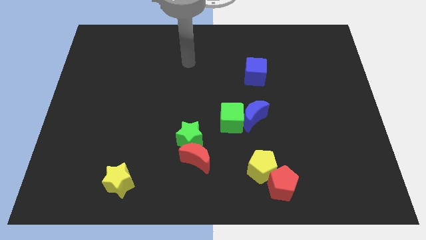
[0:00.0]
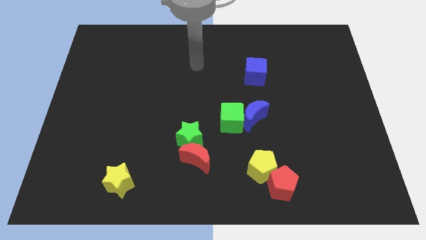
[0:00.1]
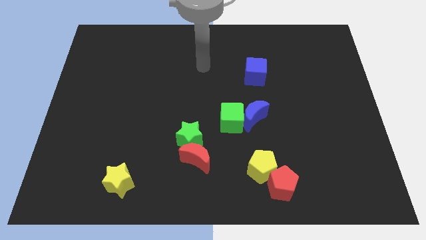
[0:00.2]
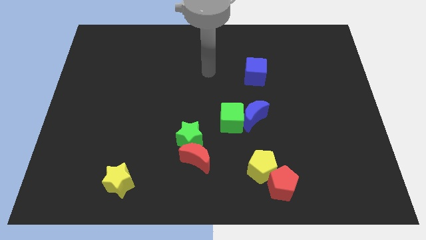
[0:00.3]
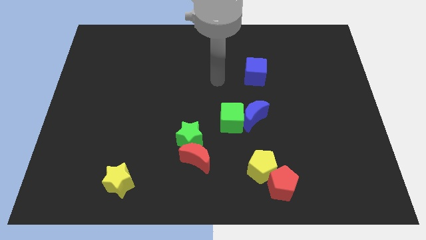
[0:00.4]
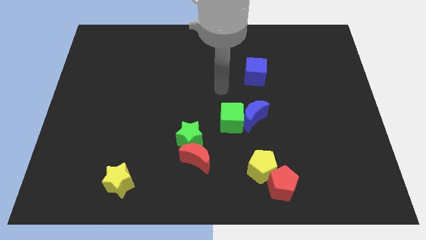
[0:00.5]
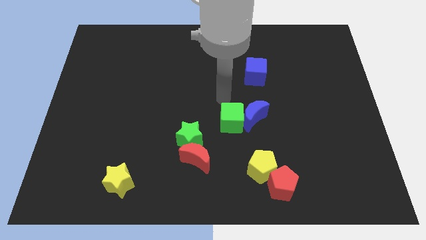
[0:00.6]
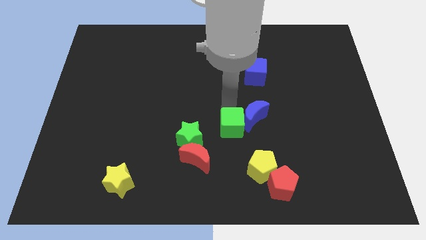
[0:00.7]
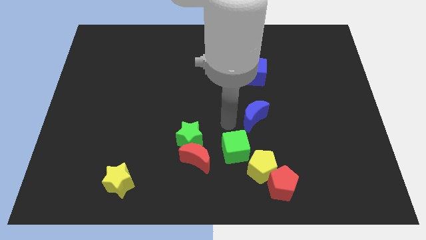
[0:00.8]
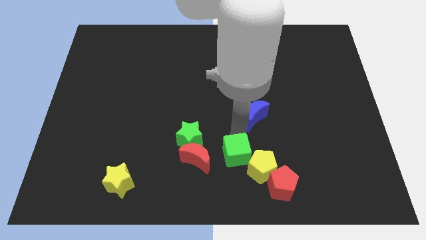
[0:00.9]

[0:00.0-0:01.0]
move the blue moon away from the green cube

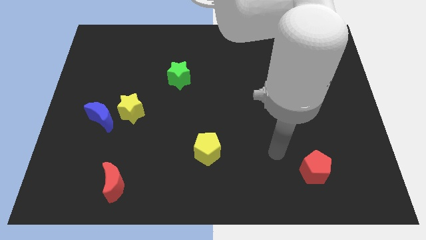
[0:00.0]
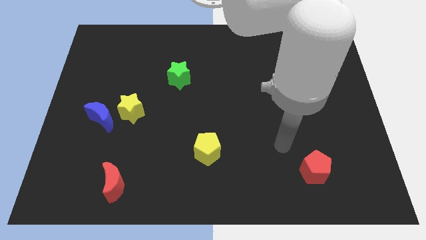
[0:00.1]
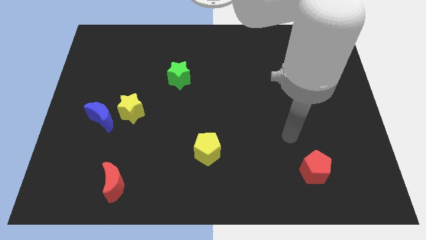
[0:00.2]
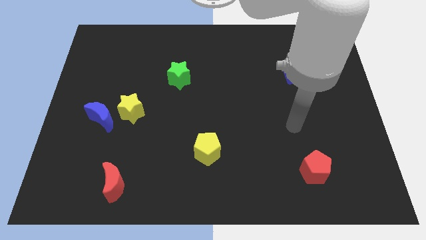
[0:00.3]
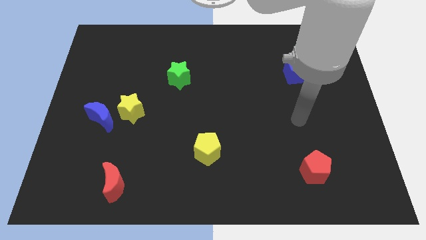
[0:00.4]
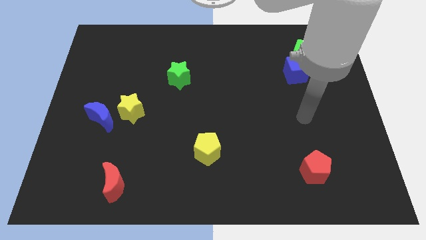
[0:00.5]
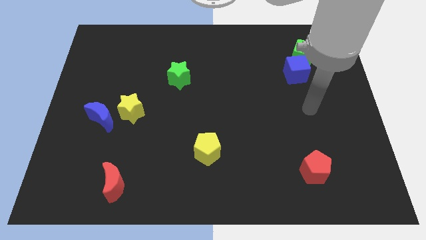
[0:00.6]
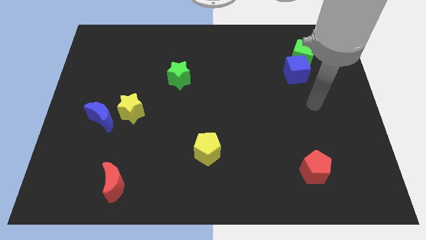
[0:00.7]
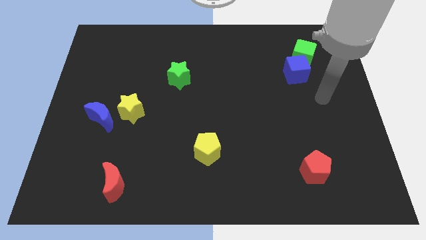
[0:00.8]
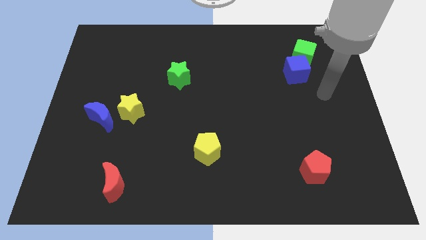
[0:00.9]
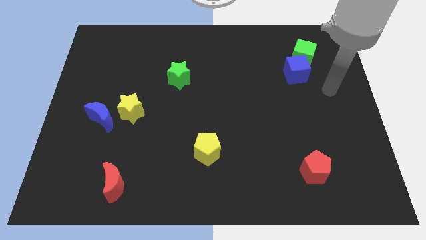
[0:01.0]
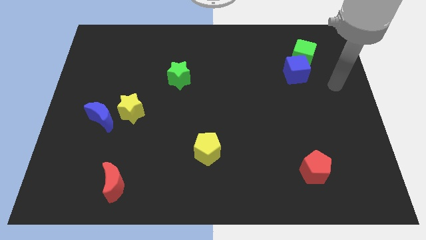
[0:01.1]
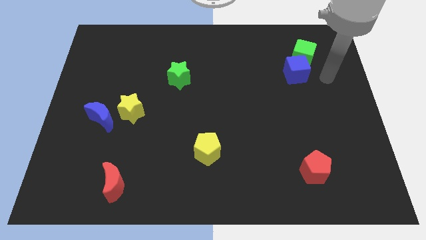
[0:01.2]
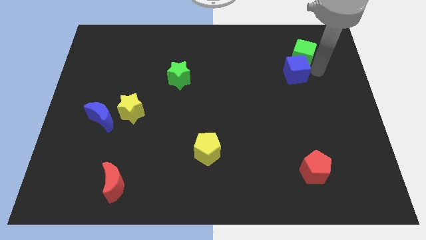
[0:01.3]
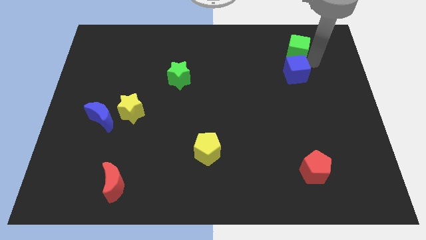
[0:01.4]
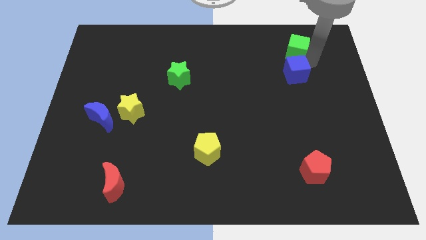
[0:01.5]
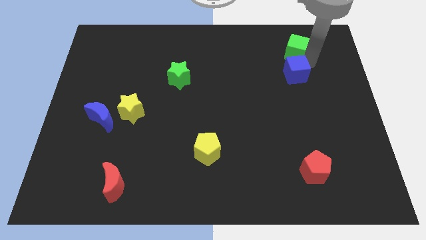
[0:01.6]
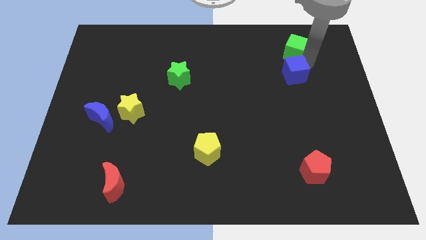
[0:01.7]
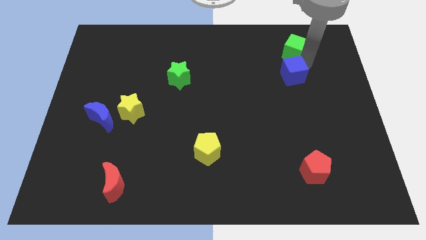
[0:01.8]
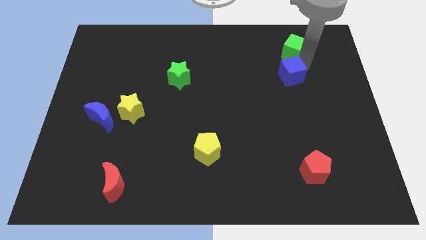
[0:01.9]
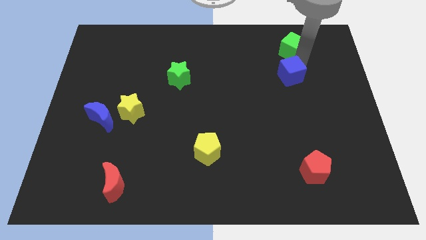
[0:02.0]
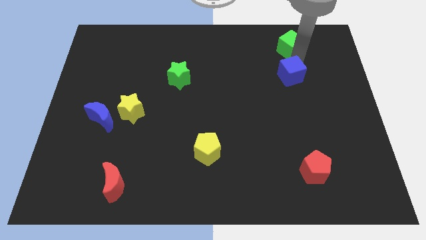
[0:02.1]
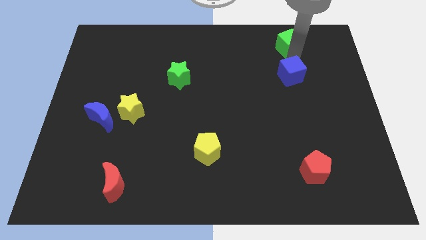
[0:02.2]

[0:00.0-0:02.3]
move the blue cube away from the green cube

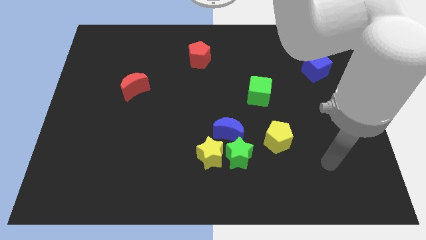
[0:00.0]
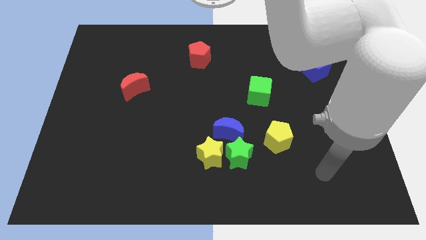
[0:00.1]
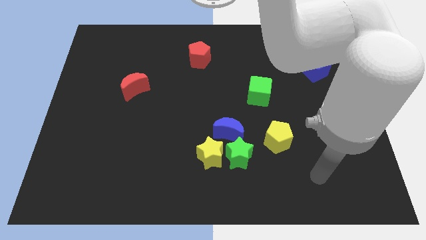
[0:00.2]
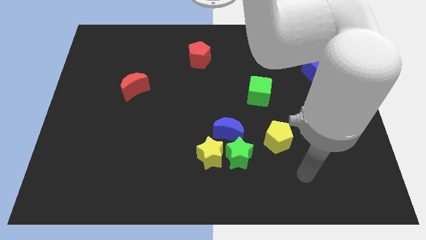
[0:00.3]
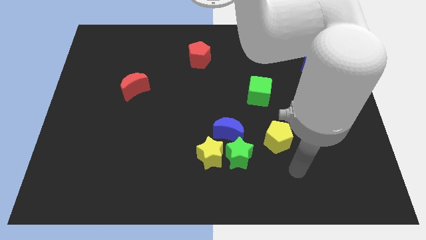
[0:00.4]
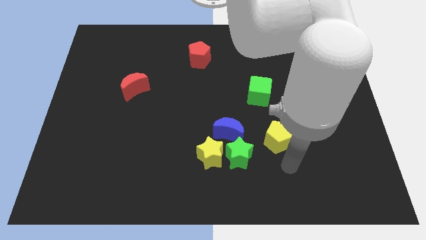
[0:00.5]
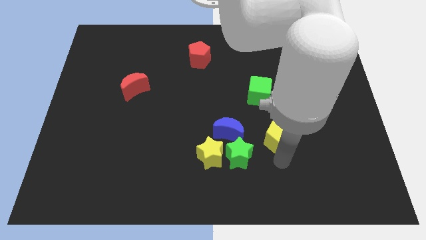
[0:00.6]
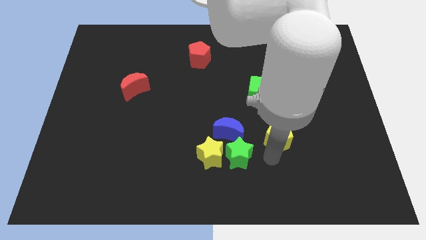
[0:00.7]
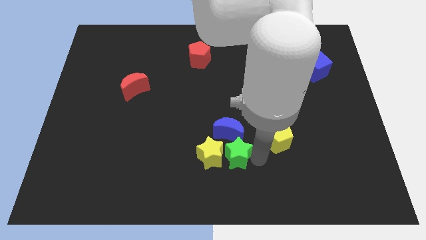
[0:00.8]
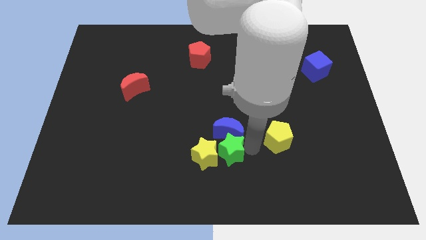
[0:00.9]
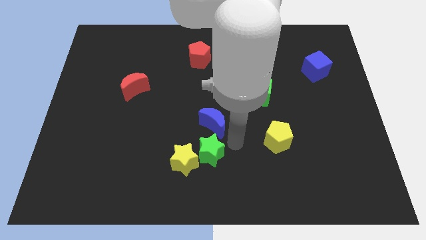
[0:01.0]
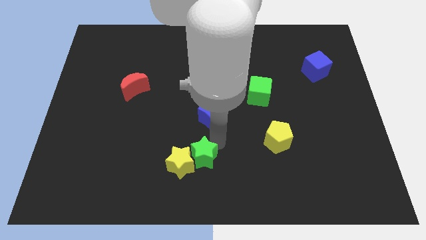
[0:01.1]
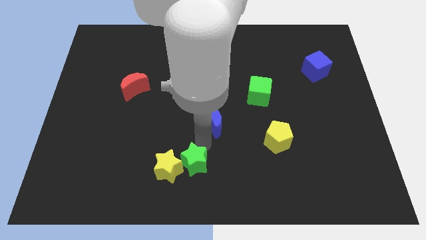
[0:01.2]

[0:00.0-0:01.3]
move the yellow star away from the green star and blue moon

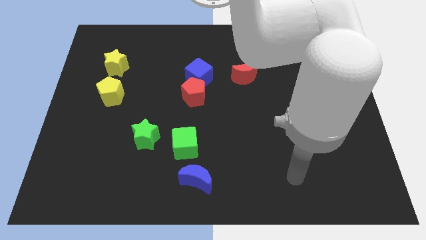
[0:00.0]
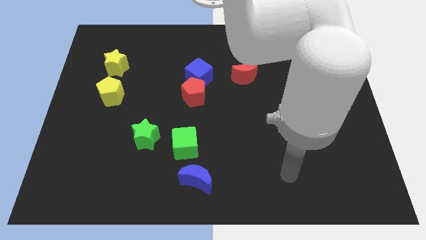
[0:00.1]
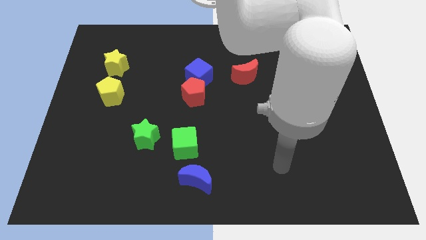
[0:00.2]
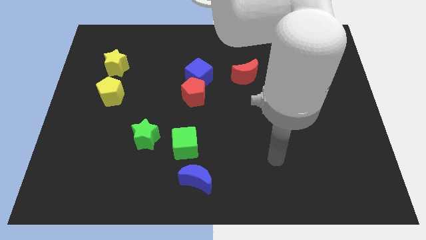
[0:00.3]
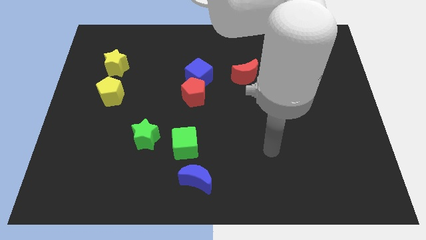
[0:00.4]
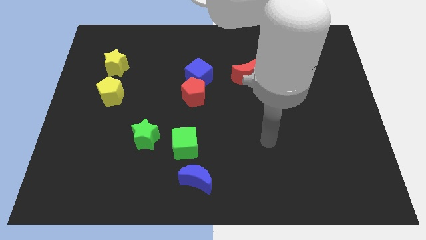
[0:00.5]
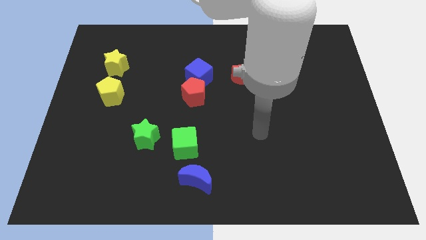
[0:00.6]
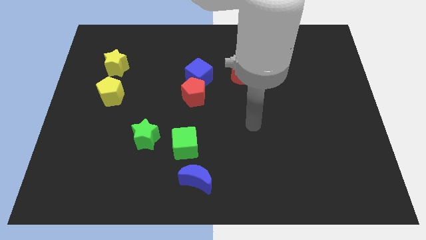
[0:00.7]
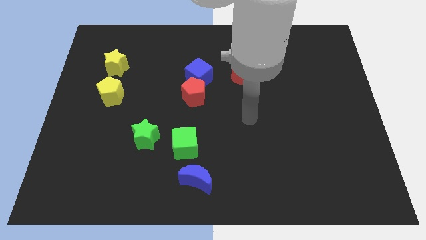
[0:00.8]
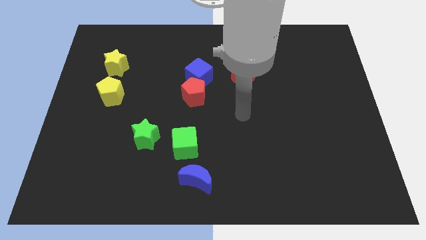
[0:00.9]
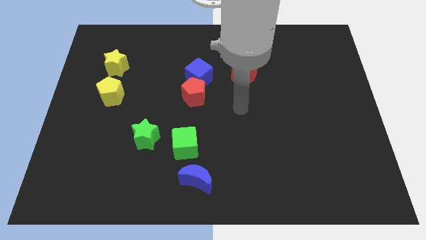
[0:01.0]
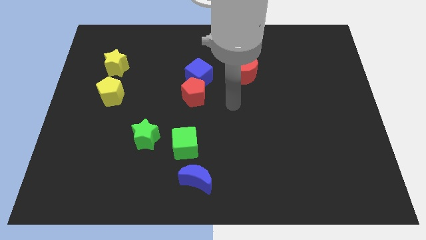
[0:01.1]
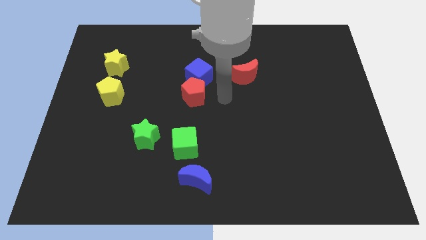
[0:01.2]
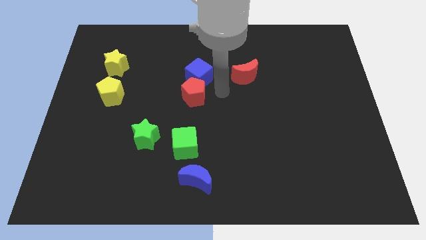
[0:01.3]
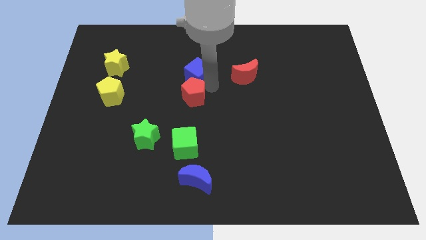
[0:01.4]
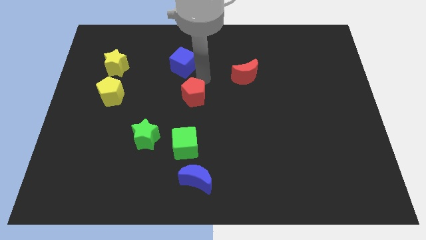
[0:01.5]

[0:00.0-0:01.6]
move the red pentagon away from the blue cube

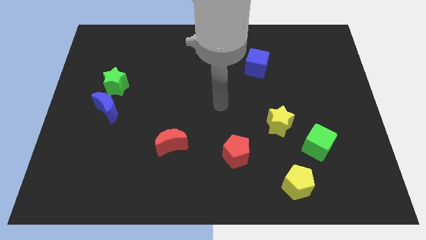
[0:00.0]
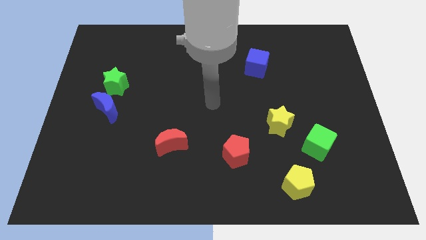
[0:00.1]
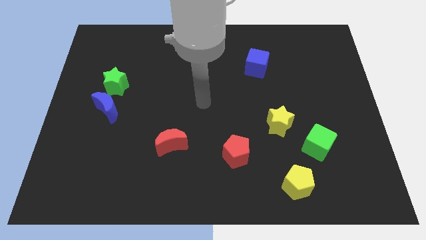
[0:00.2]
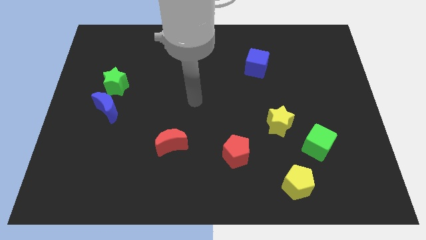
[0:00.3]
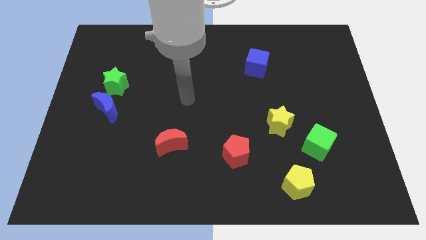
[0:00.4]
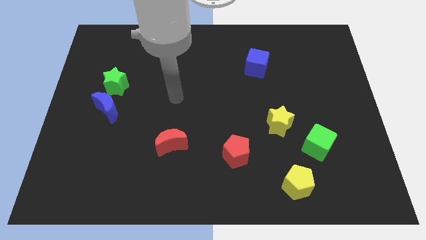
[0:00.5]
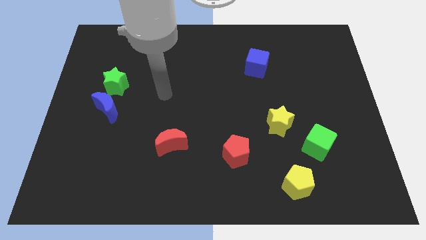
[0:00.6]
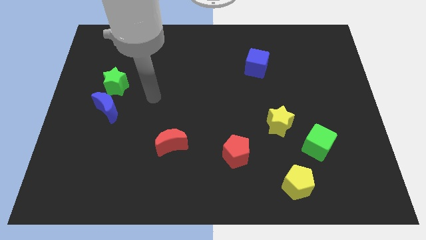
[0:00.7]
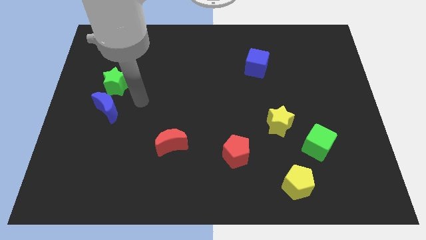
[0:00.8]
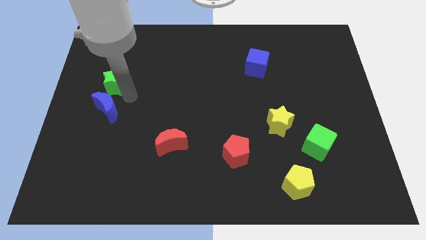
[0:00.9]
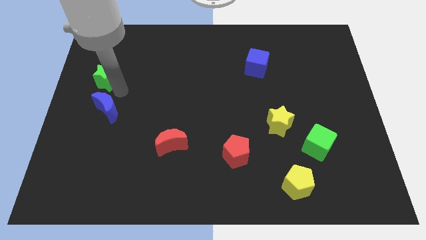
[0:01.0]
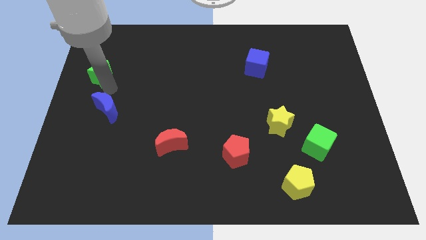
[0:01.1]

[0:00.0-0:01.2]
separate the blue moon from the green star

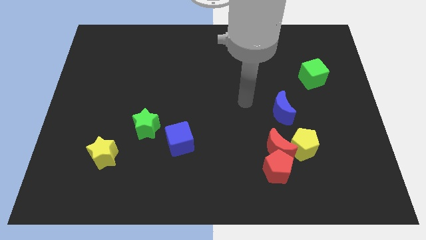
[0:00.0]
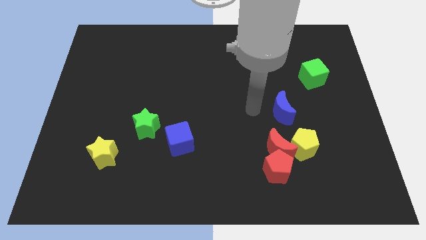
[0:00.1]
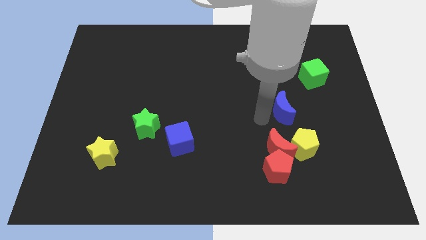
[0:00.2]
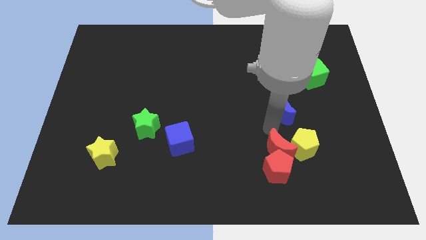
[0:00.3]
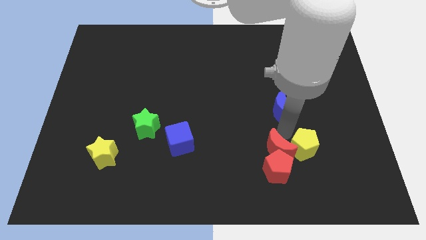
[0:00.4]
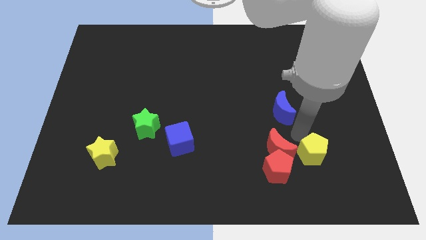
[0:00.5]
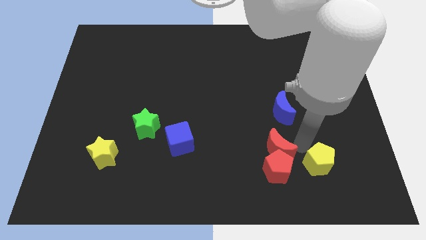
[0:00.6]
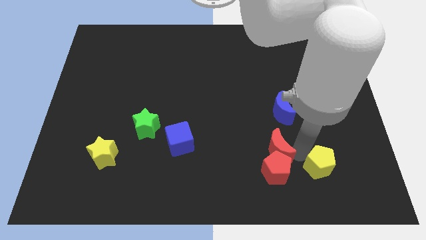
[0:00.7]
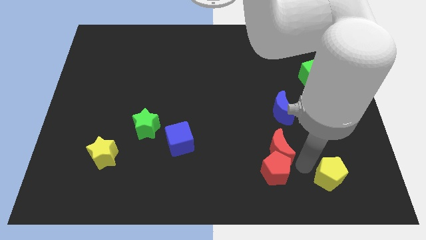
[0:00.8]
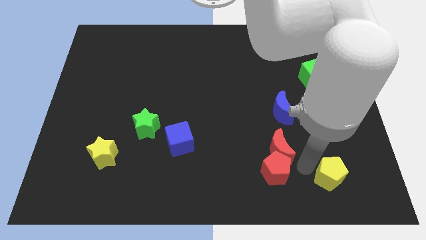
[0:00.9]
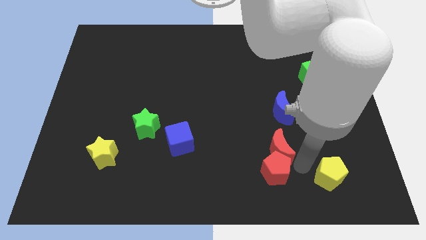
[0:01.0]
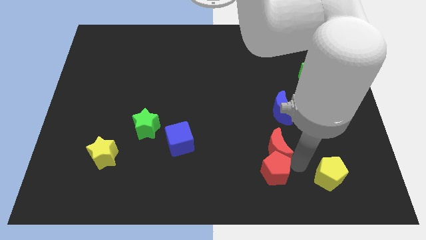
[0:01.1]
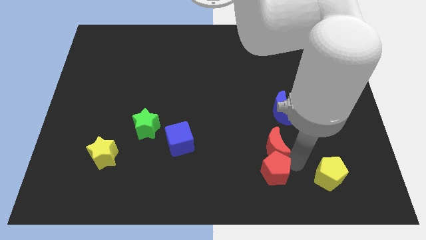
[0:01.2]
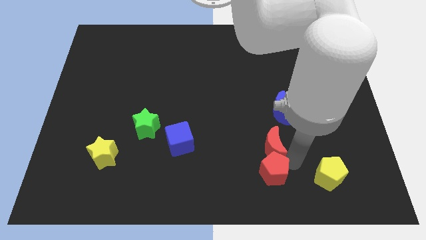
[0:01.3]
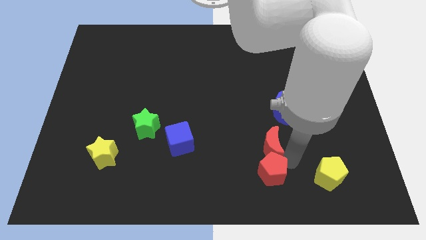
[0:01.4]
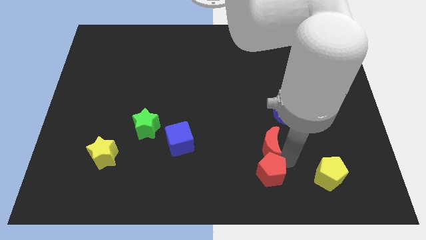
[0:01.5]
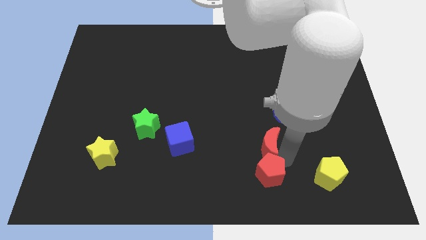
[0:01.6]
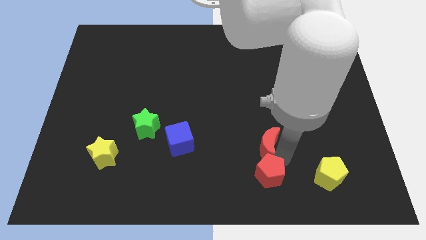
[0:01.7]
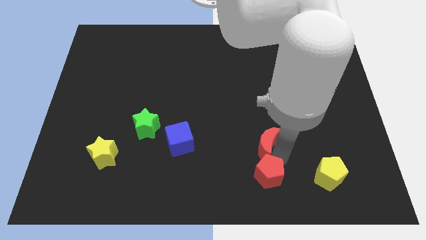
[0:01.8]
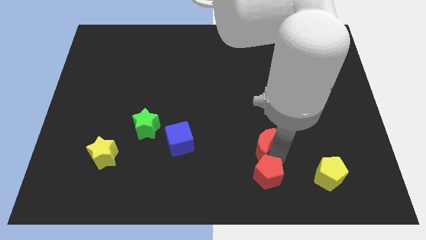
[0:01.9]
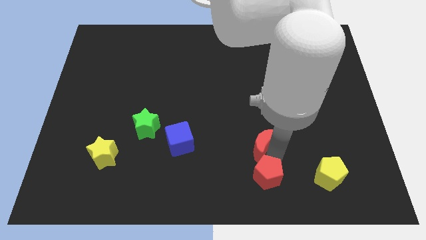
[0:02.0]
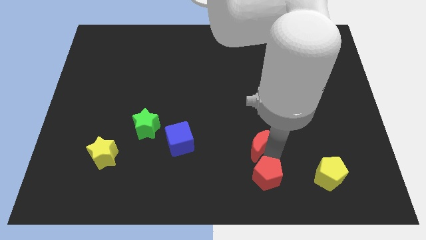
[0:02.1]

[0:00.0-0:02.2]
pull the red moon apart from the red pentagon and yellow pentagon
